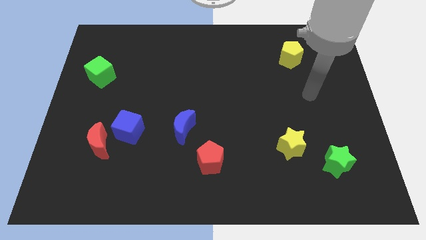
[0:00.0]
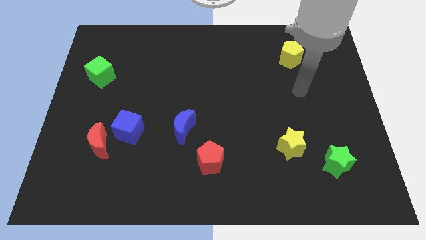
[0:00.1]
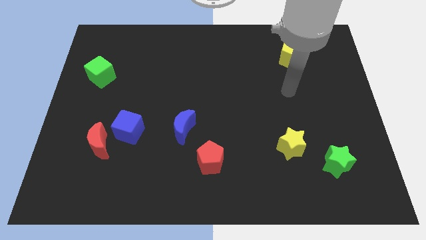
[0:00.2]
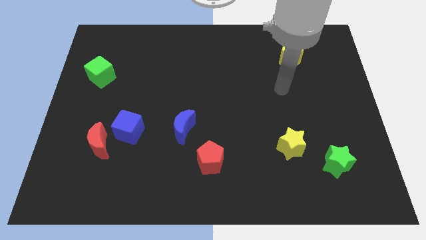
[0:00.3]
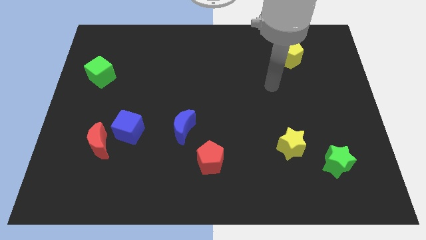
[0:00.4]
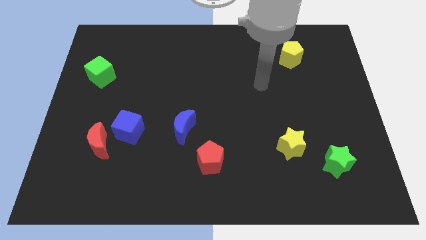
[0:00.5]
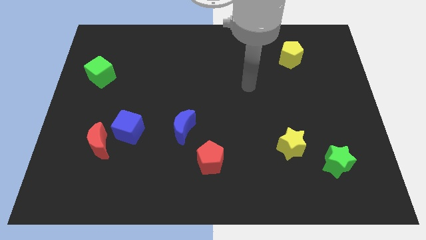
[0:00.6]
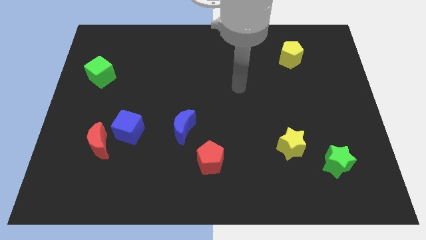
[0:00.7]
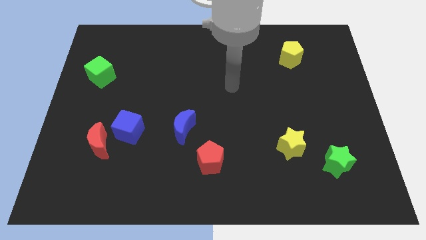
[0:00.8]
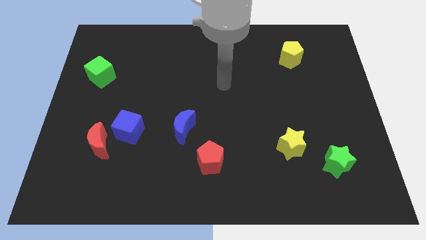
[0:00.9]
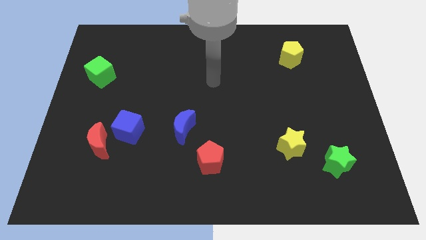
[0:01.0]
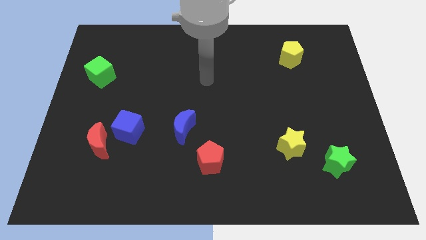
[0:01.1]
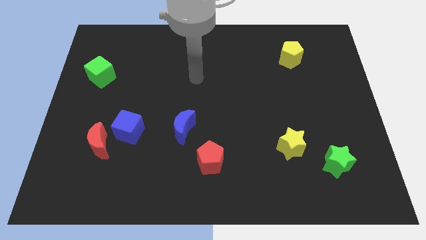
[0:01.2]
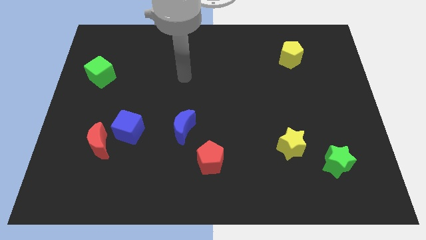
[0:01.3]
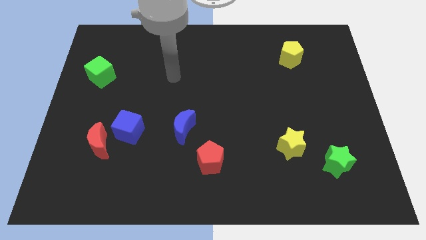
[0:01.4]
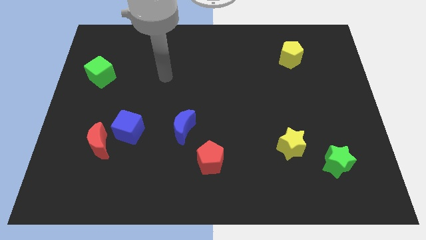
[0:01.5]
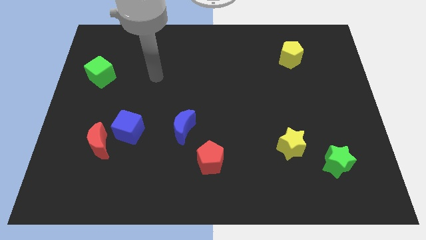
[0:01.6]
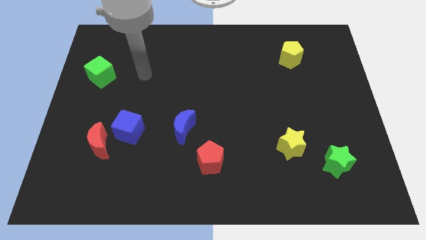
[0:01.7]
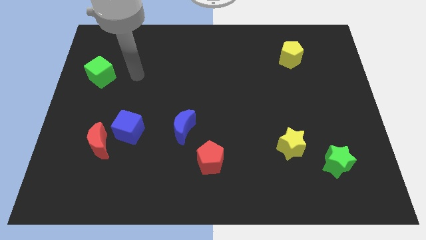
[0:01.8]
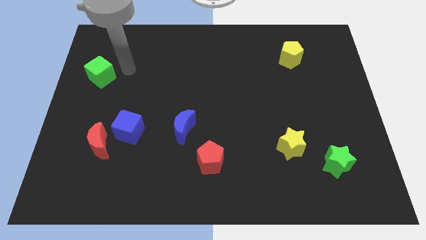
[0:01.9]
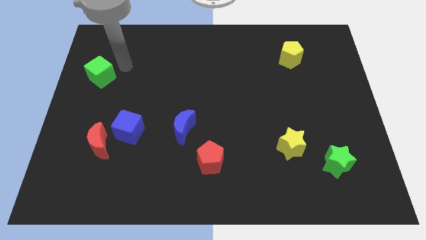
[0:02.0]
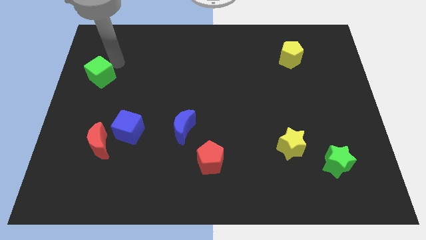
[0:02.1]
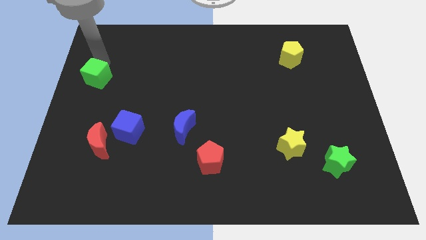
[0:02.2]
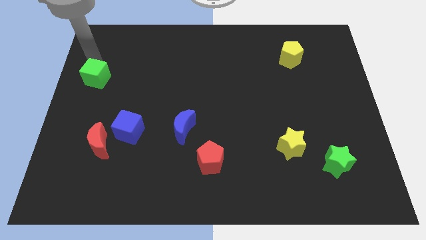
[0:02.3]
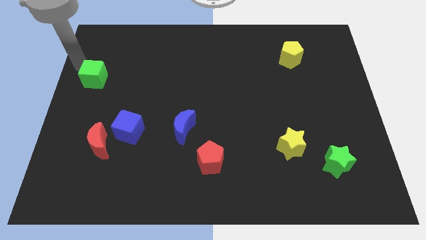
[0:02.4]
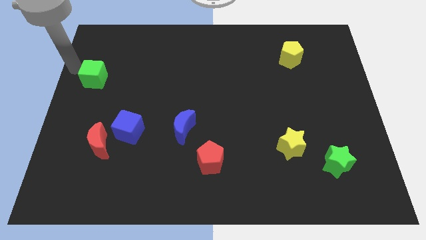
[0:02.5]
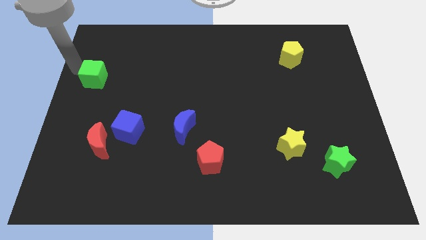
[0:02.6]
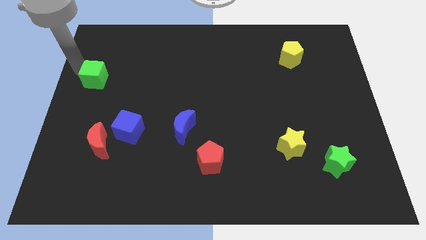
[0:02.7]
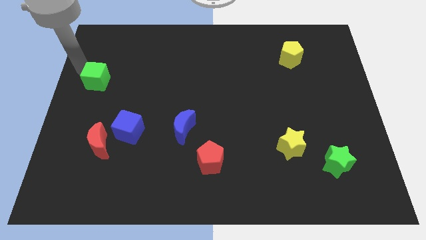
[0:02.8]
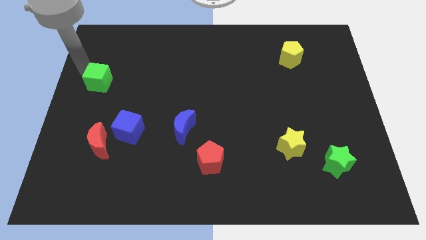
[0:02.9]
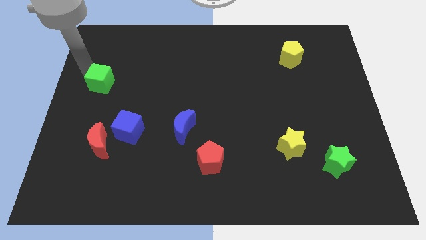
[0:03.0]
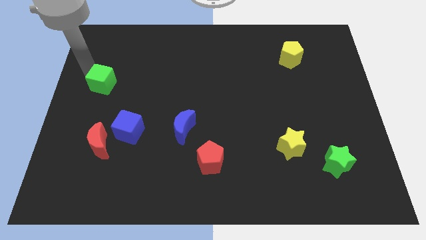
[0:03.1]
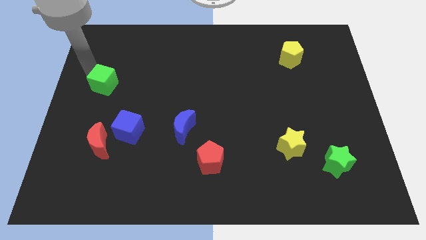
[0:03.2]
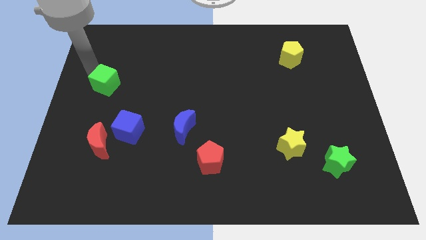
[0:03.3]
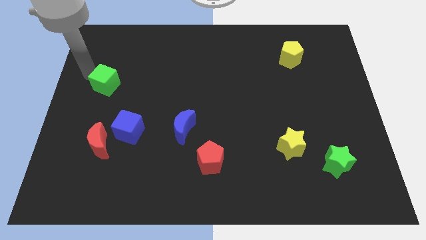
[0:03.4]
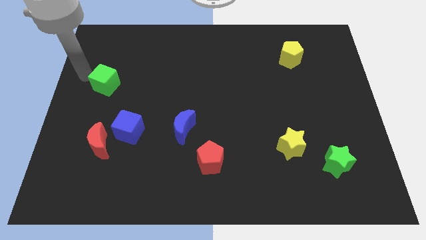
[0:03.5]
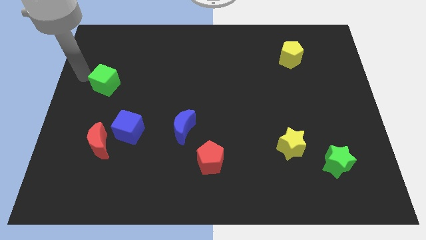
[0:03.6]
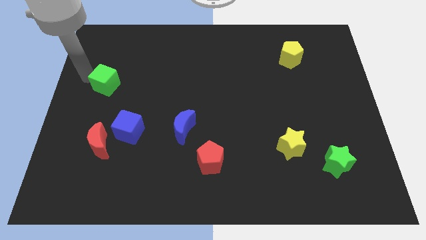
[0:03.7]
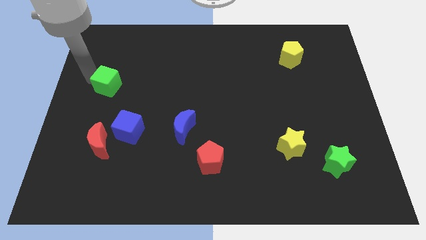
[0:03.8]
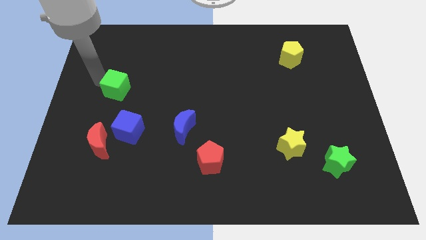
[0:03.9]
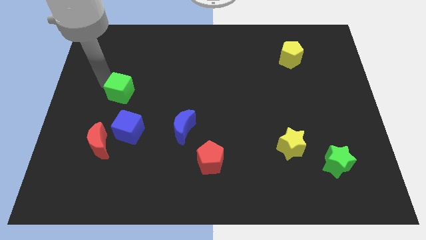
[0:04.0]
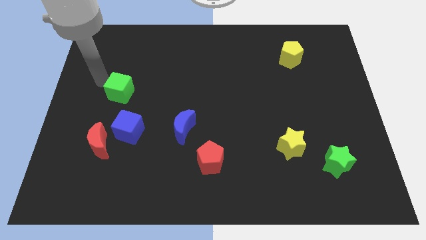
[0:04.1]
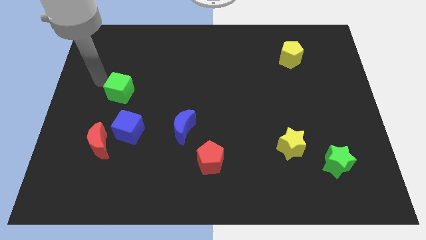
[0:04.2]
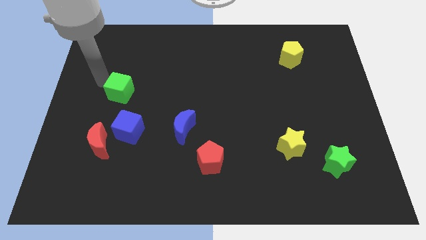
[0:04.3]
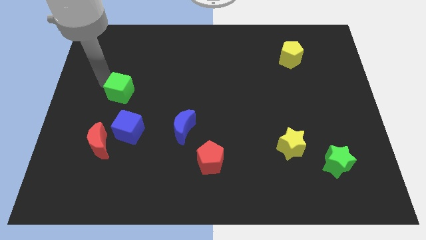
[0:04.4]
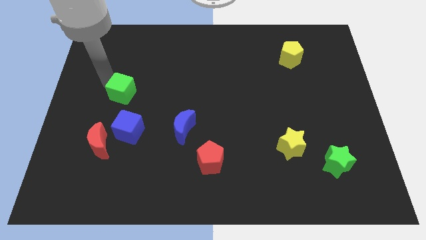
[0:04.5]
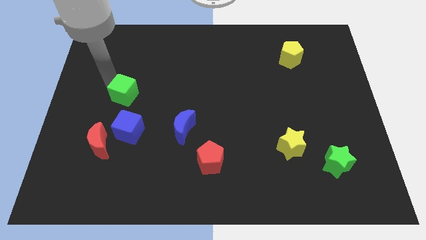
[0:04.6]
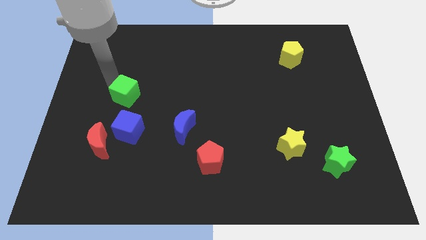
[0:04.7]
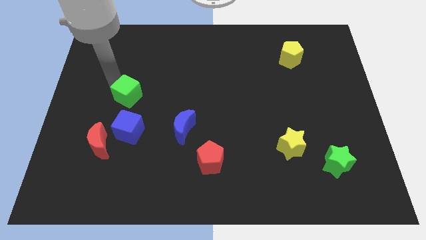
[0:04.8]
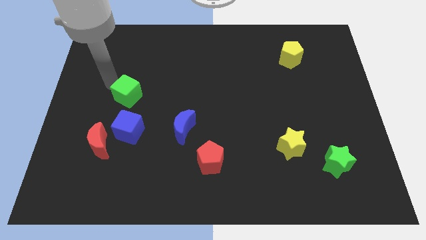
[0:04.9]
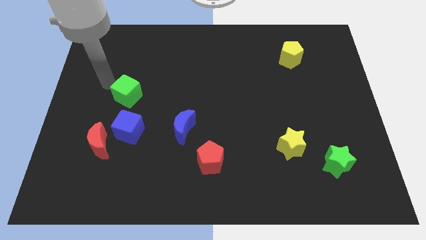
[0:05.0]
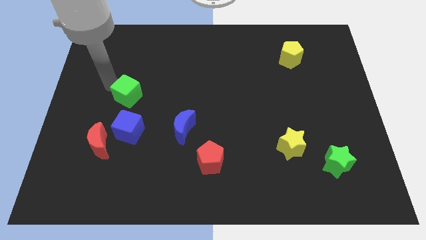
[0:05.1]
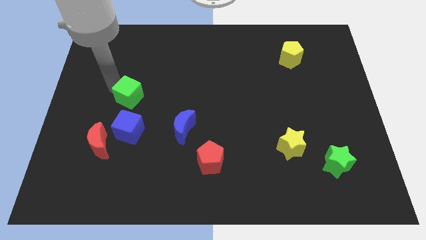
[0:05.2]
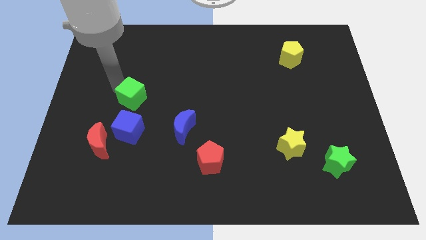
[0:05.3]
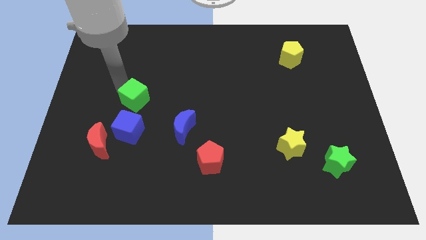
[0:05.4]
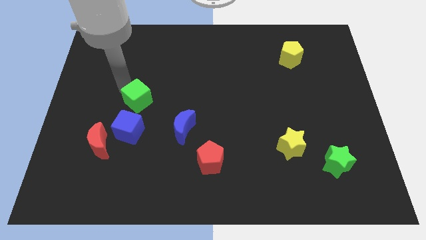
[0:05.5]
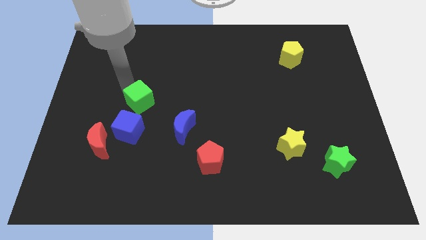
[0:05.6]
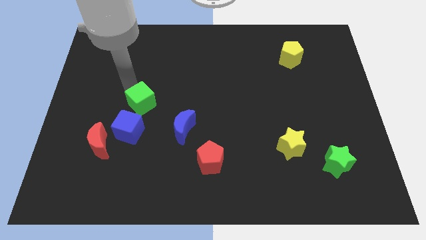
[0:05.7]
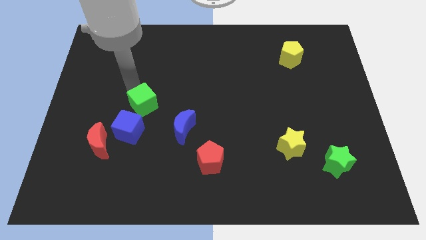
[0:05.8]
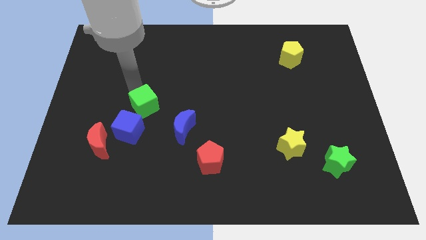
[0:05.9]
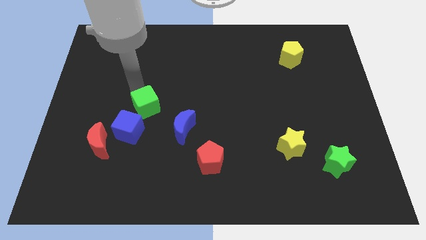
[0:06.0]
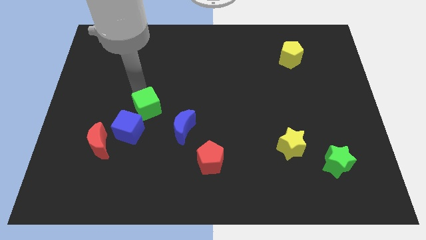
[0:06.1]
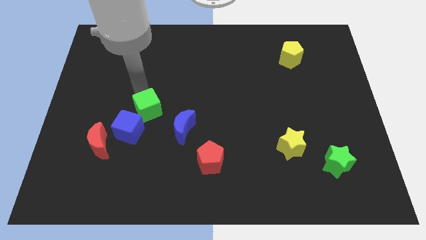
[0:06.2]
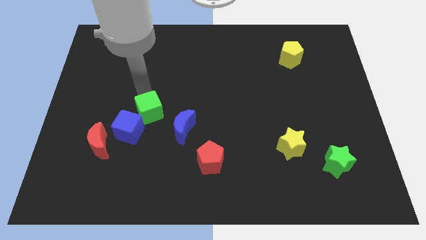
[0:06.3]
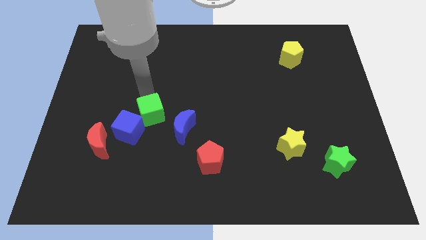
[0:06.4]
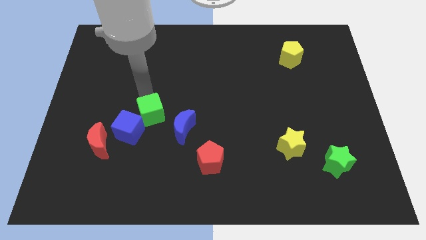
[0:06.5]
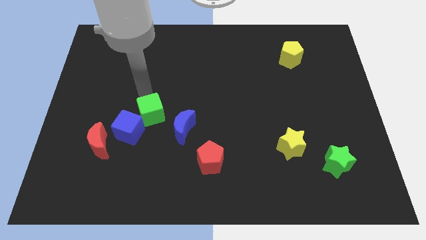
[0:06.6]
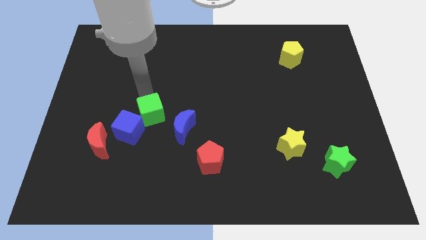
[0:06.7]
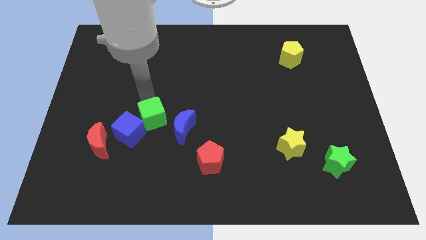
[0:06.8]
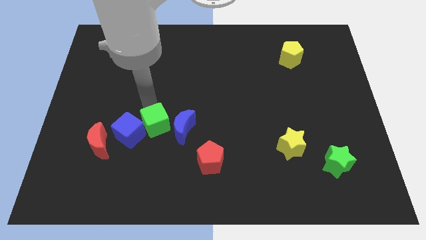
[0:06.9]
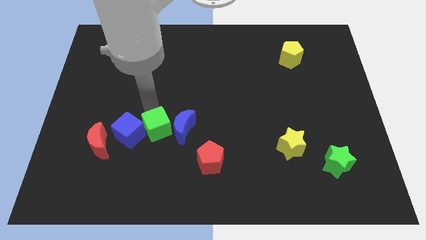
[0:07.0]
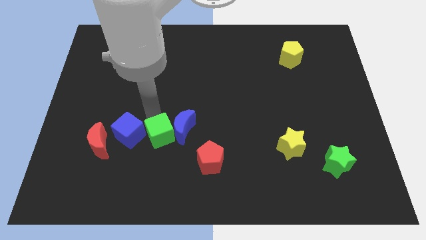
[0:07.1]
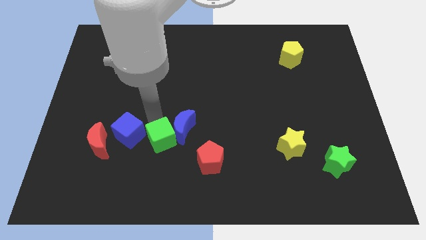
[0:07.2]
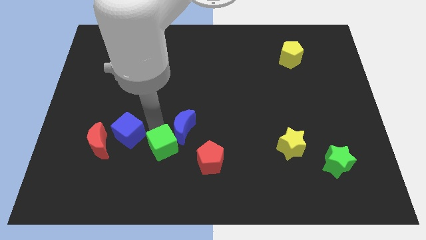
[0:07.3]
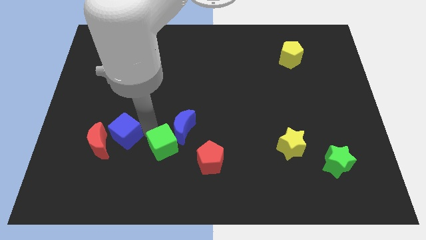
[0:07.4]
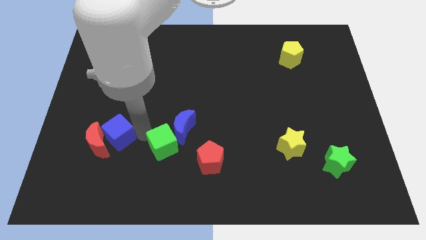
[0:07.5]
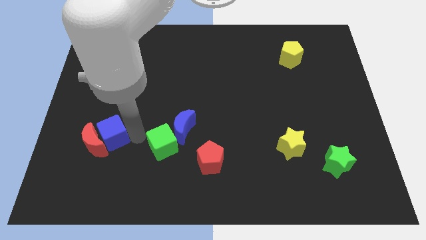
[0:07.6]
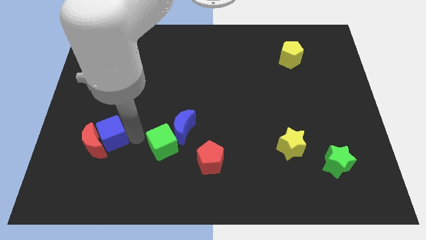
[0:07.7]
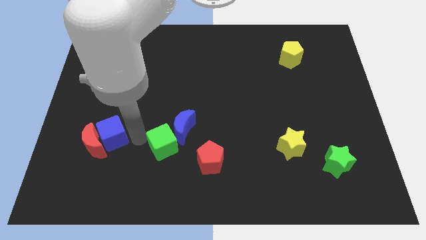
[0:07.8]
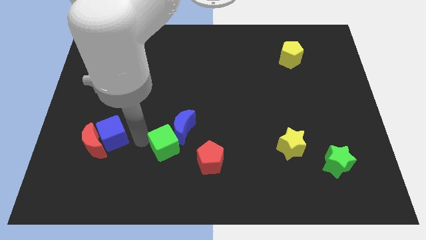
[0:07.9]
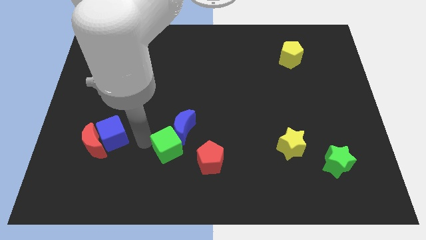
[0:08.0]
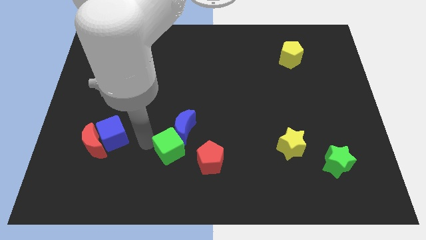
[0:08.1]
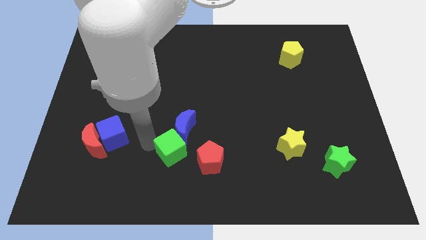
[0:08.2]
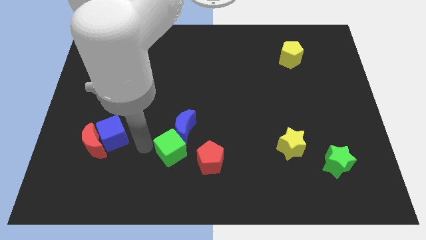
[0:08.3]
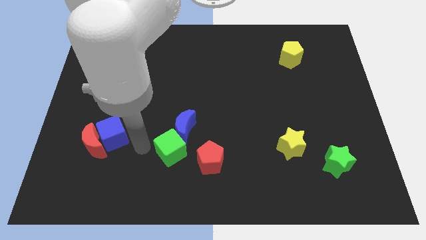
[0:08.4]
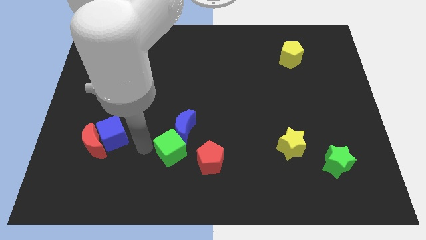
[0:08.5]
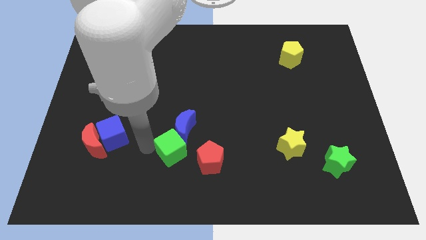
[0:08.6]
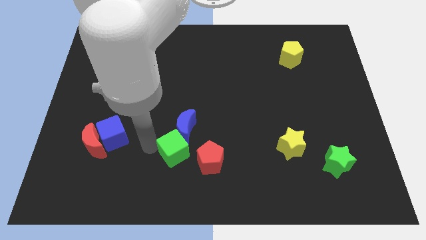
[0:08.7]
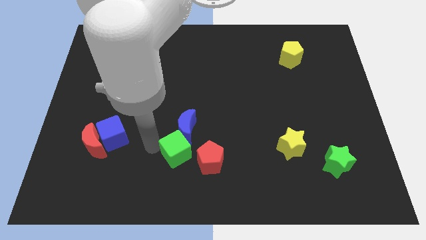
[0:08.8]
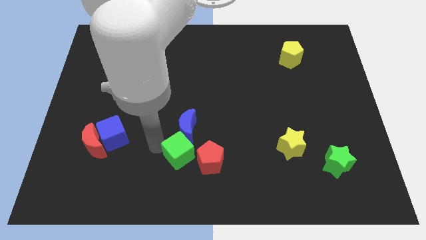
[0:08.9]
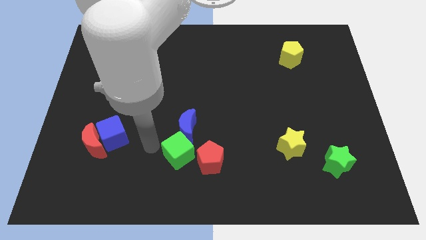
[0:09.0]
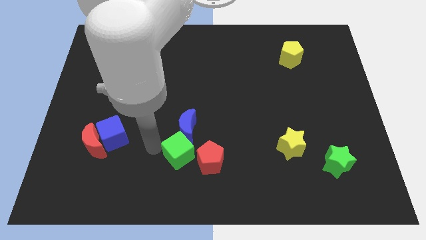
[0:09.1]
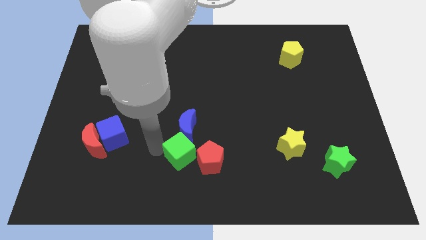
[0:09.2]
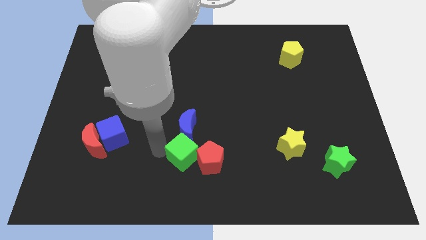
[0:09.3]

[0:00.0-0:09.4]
push the green cube close to the red pentagon
